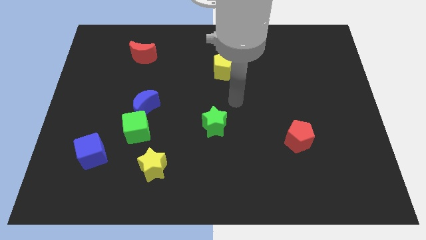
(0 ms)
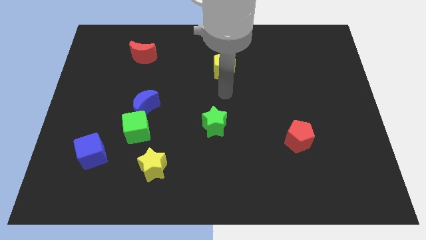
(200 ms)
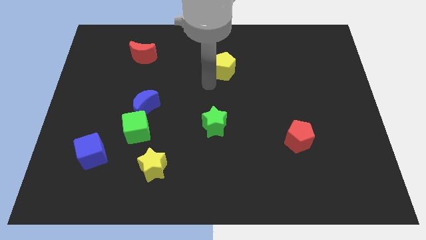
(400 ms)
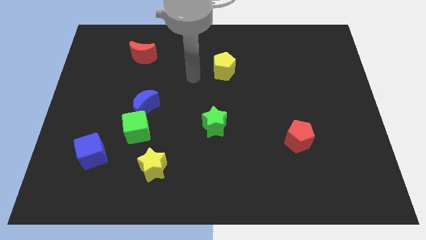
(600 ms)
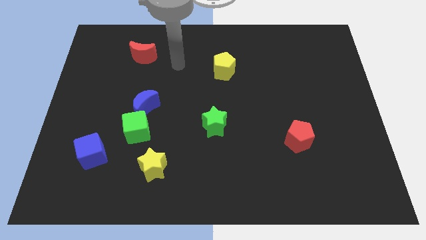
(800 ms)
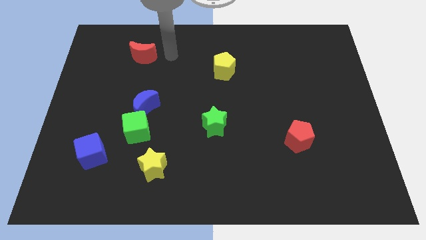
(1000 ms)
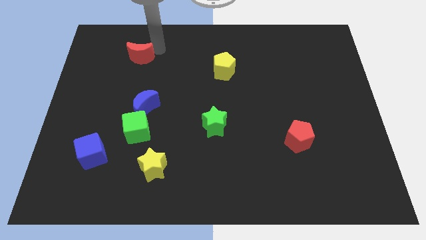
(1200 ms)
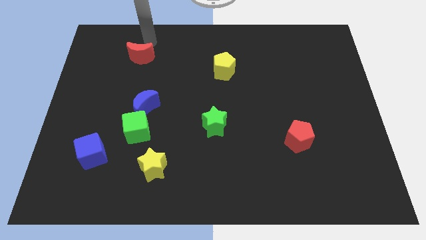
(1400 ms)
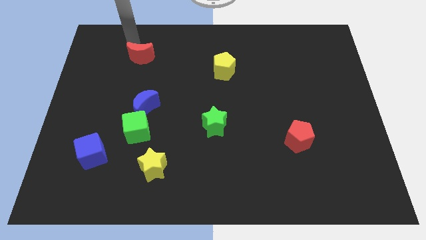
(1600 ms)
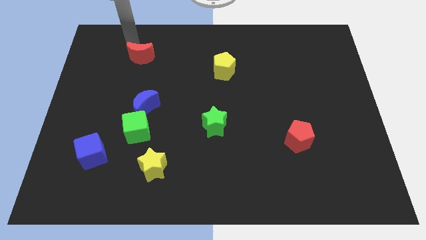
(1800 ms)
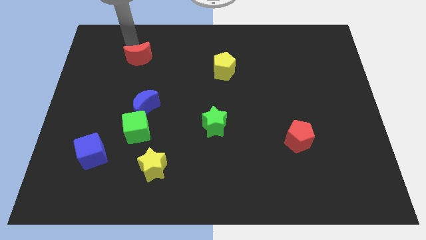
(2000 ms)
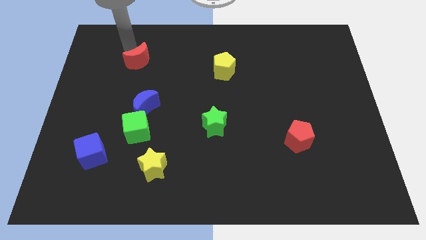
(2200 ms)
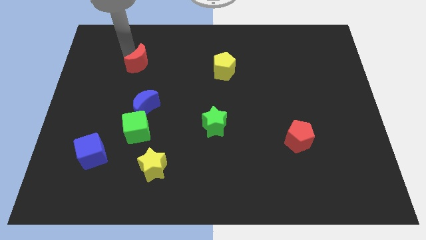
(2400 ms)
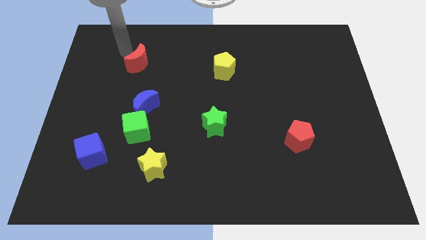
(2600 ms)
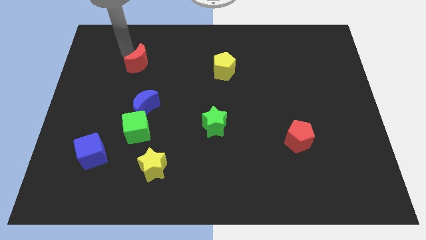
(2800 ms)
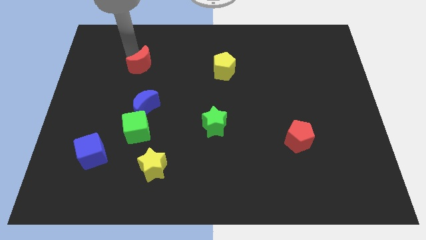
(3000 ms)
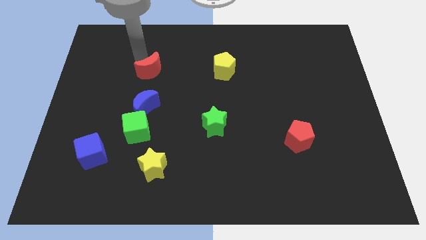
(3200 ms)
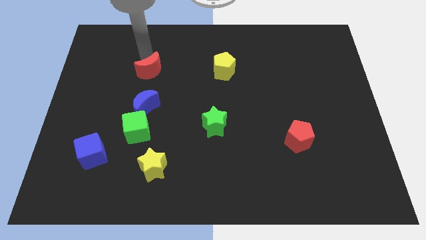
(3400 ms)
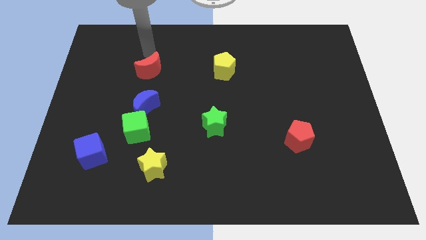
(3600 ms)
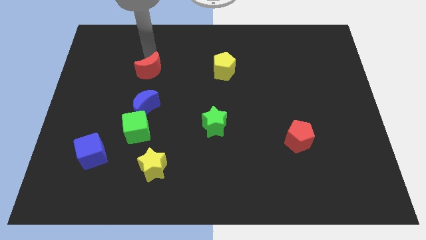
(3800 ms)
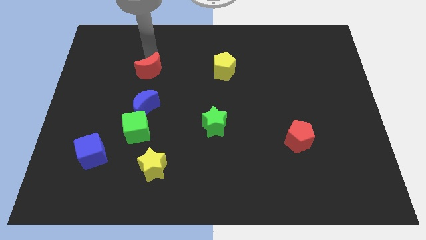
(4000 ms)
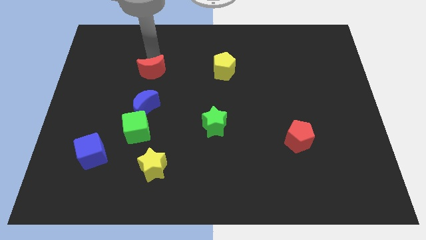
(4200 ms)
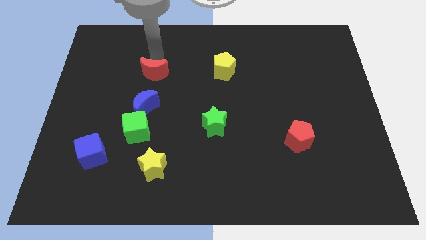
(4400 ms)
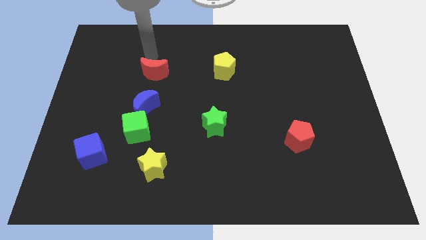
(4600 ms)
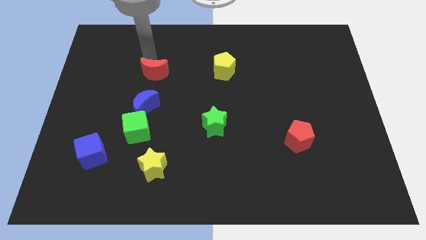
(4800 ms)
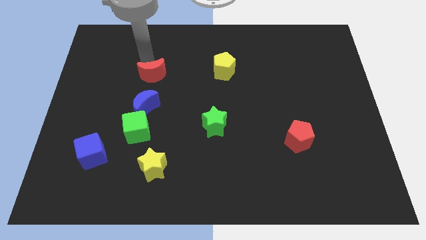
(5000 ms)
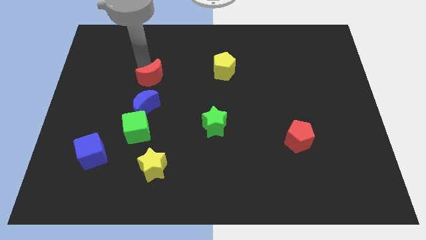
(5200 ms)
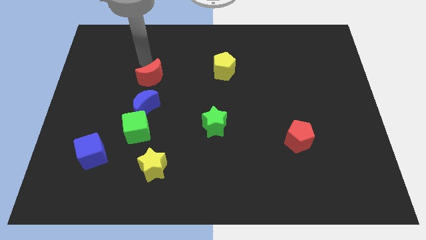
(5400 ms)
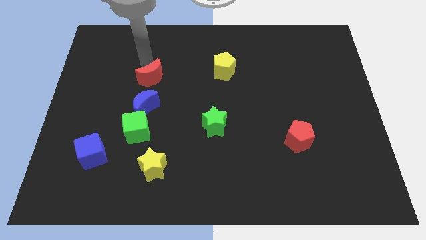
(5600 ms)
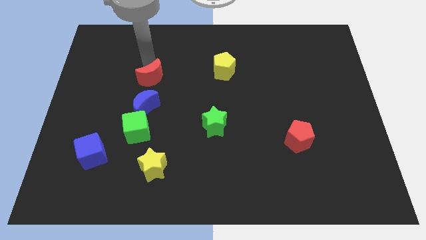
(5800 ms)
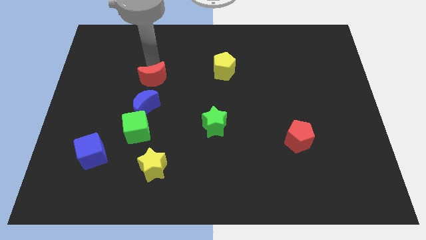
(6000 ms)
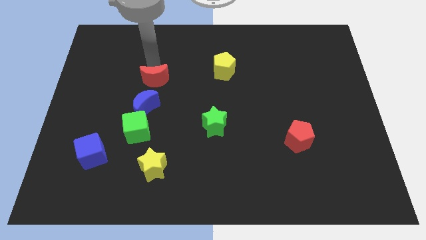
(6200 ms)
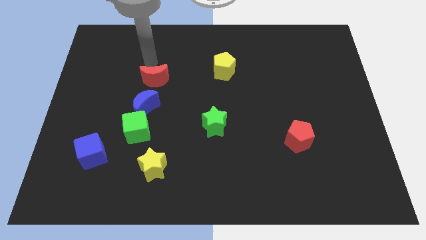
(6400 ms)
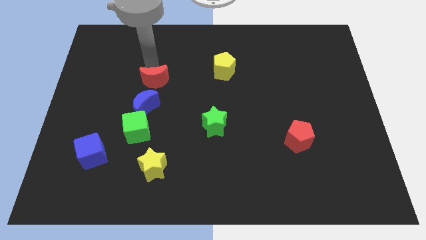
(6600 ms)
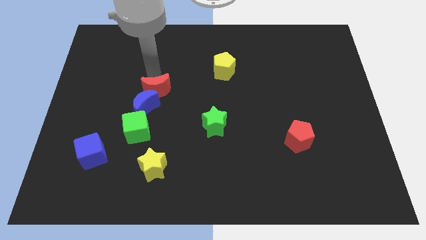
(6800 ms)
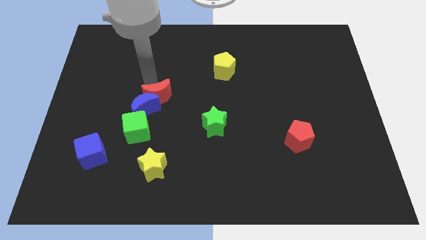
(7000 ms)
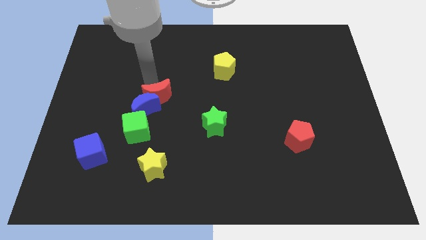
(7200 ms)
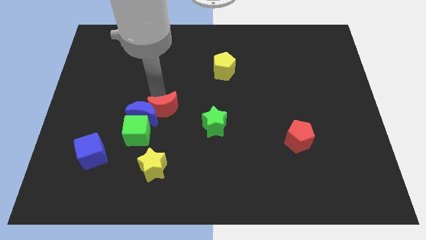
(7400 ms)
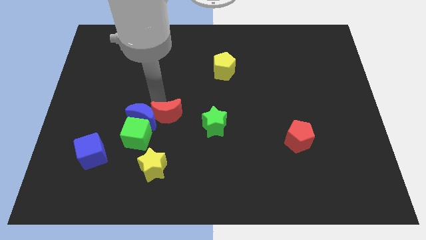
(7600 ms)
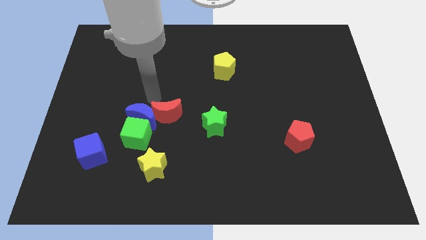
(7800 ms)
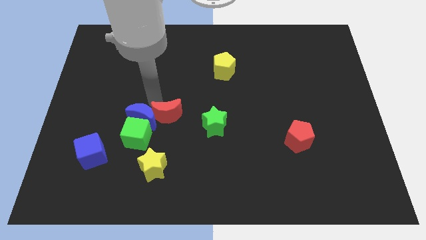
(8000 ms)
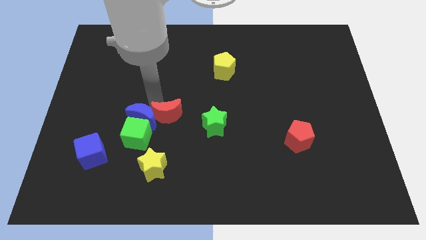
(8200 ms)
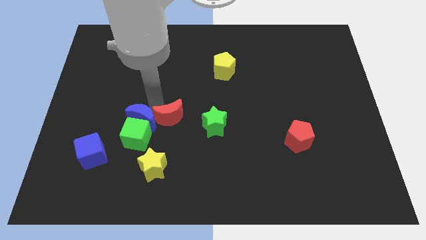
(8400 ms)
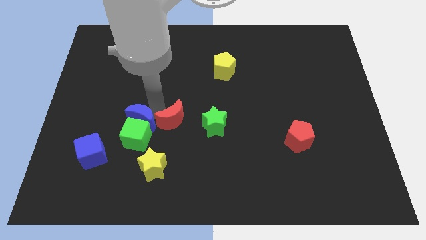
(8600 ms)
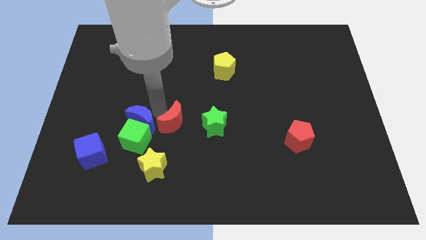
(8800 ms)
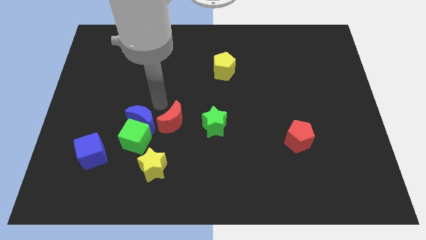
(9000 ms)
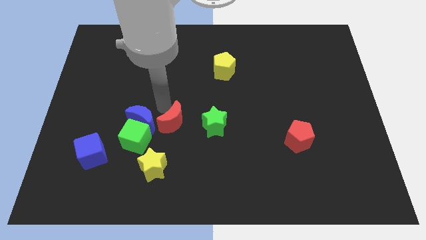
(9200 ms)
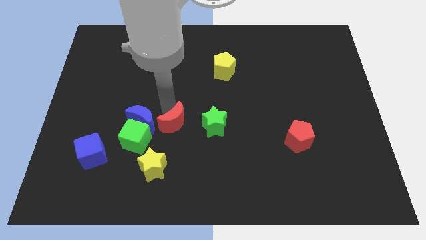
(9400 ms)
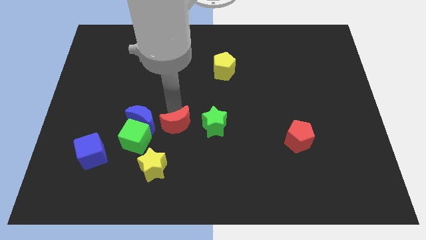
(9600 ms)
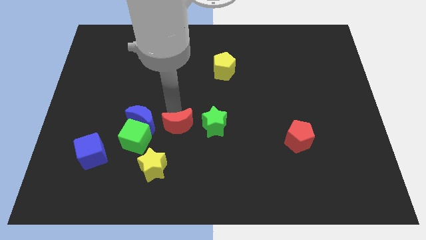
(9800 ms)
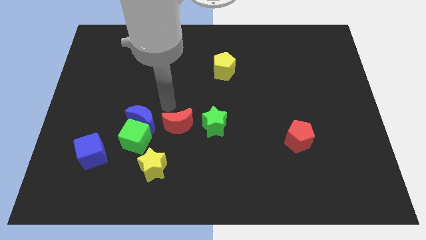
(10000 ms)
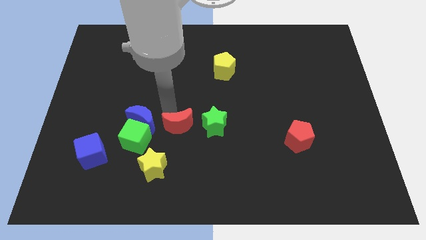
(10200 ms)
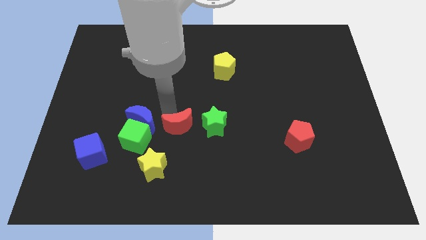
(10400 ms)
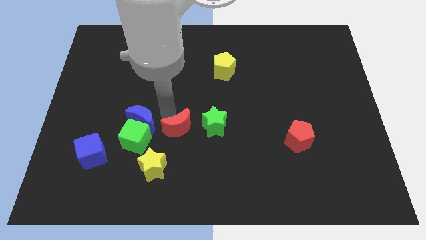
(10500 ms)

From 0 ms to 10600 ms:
push the red moon to the bottom left of the green star

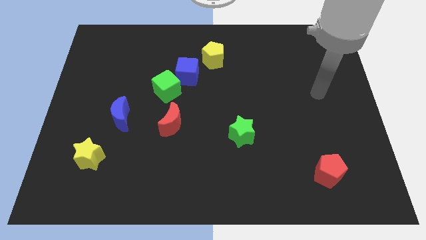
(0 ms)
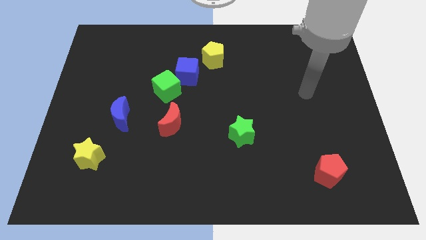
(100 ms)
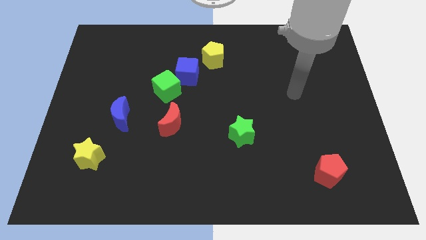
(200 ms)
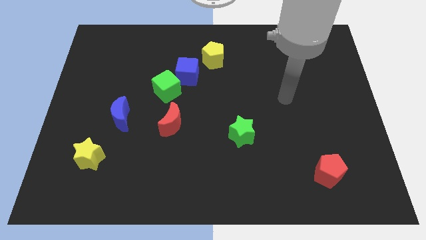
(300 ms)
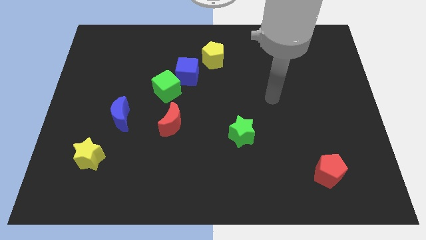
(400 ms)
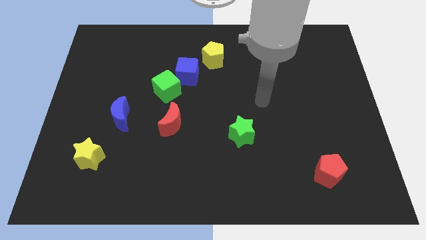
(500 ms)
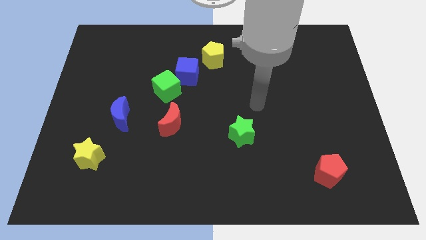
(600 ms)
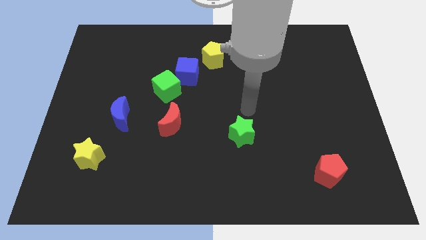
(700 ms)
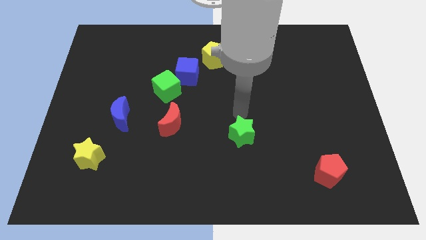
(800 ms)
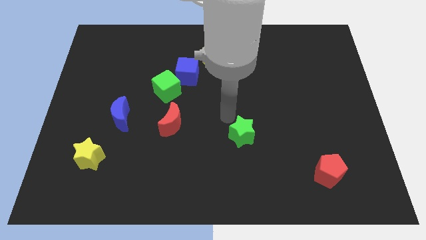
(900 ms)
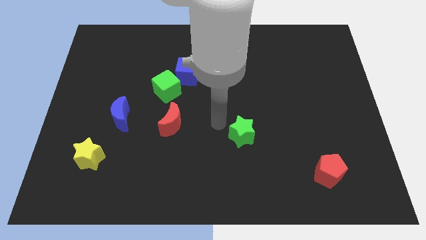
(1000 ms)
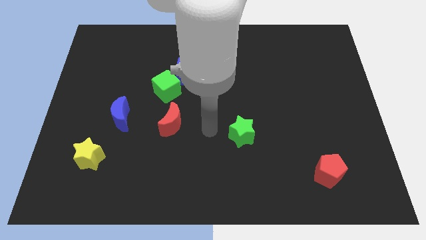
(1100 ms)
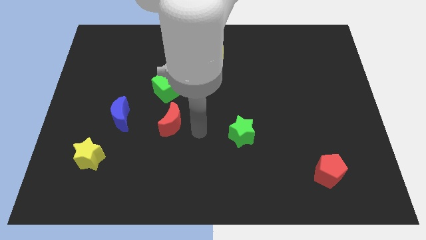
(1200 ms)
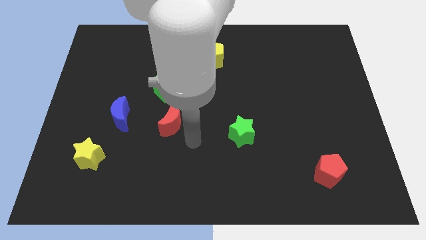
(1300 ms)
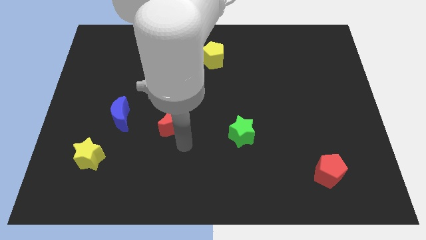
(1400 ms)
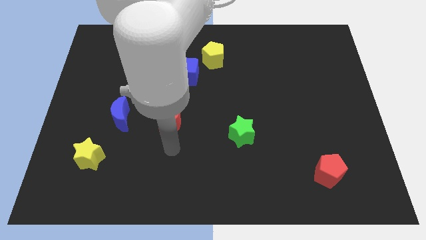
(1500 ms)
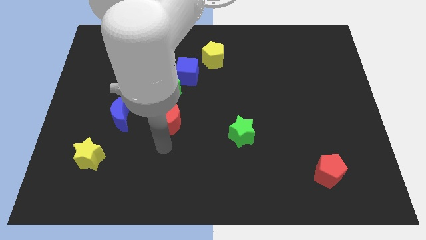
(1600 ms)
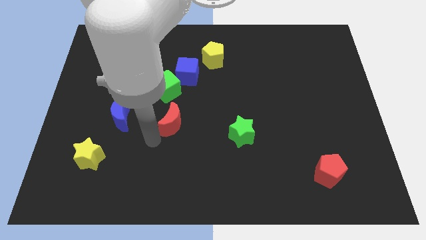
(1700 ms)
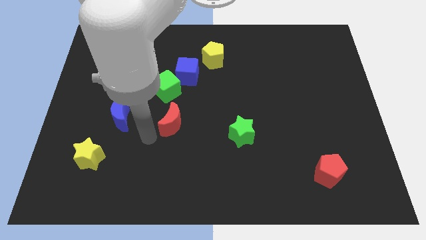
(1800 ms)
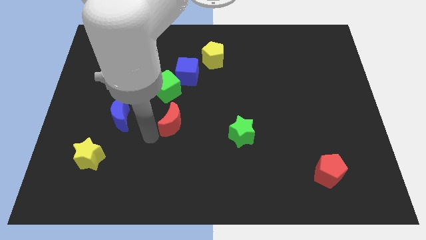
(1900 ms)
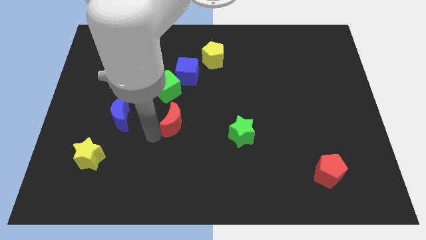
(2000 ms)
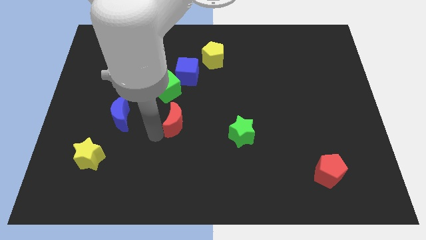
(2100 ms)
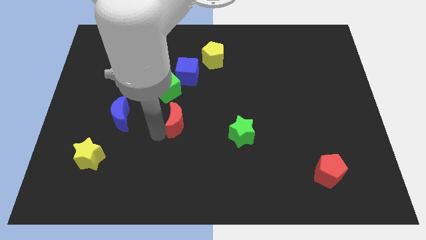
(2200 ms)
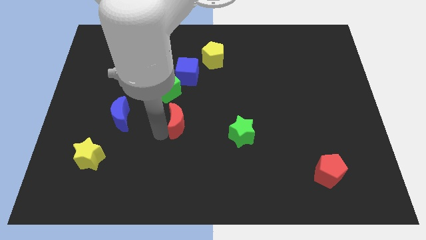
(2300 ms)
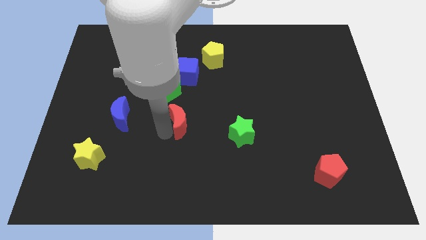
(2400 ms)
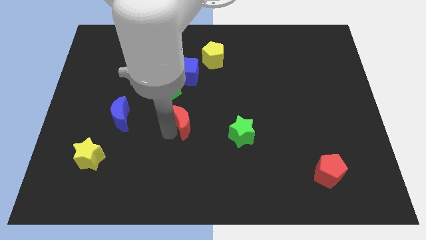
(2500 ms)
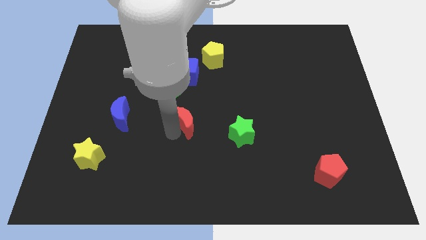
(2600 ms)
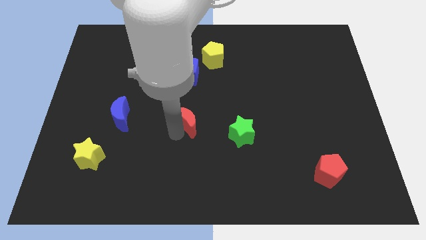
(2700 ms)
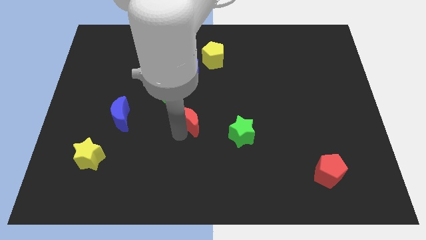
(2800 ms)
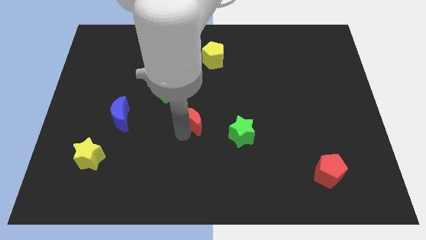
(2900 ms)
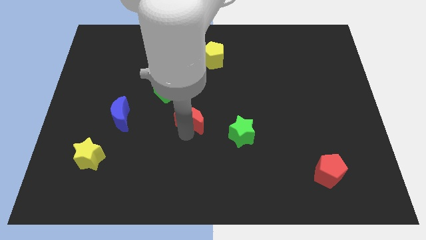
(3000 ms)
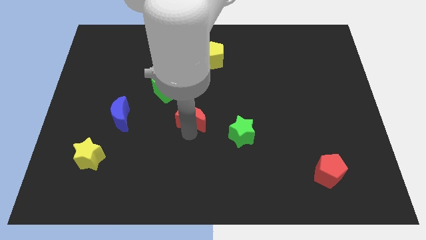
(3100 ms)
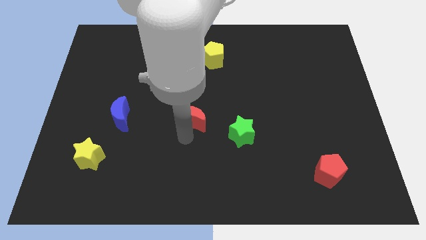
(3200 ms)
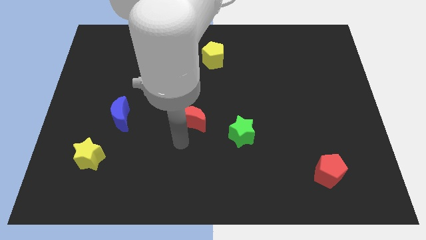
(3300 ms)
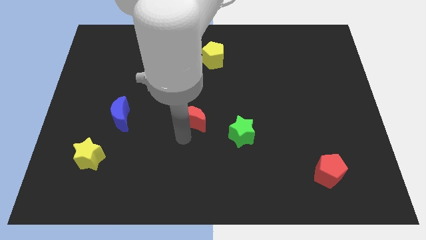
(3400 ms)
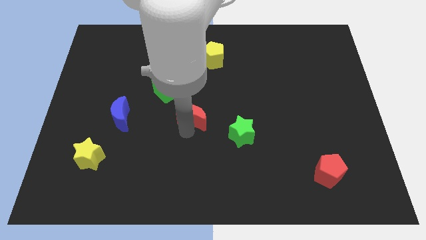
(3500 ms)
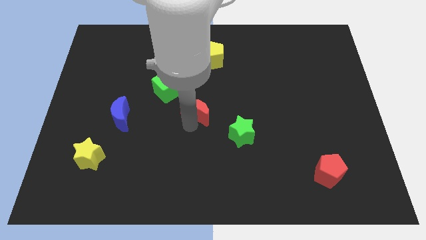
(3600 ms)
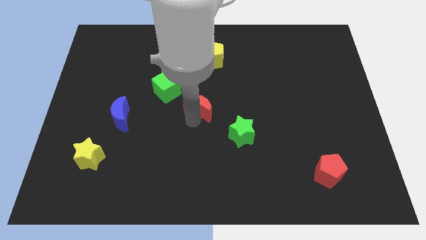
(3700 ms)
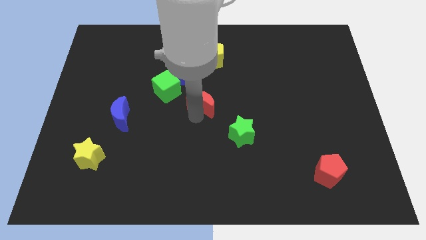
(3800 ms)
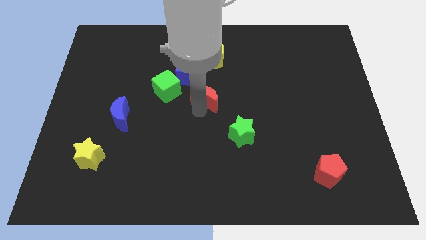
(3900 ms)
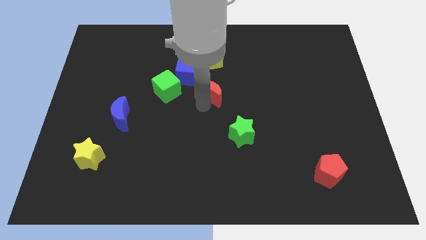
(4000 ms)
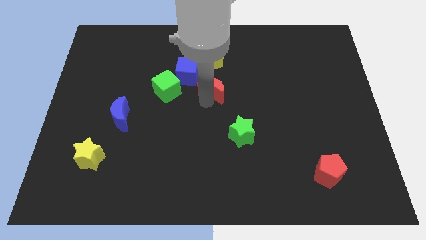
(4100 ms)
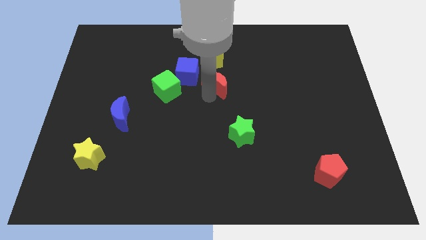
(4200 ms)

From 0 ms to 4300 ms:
move the red moon just right of the blue cube
